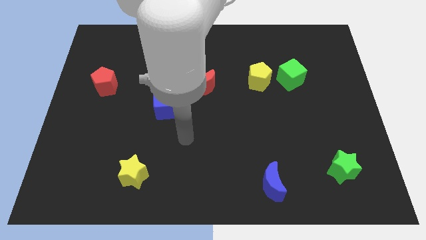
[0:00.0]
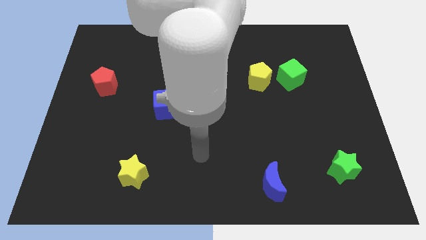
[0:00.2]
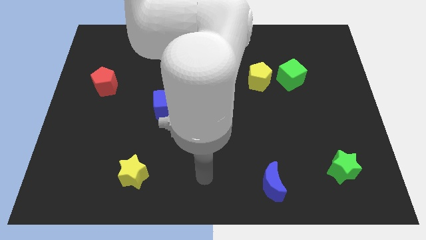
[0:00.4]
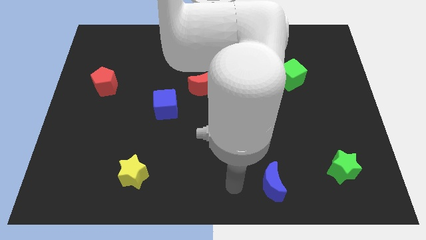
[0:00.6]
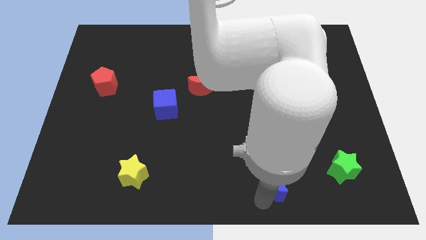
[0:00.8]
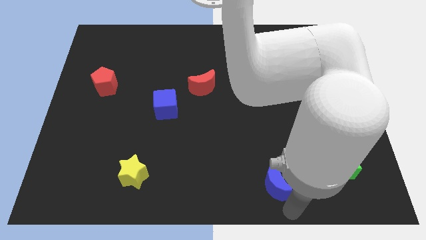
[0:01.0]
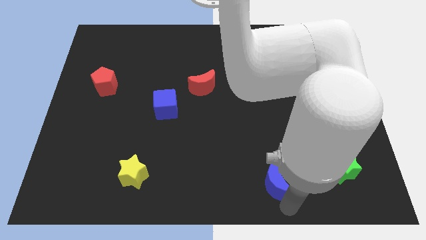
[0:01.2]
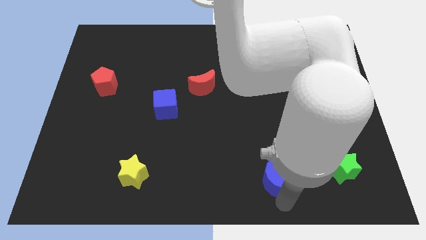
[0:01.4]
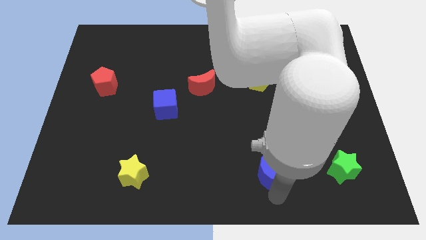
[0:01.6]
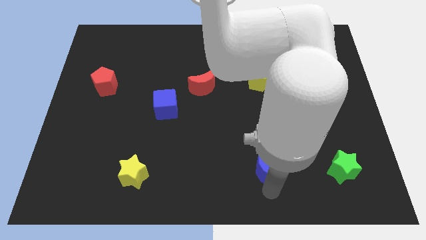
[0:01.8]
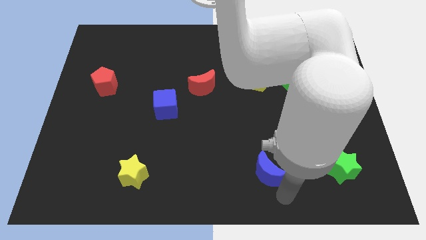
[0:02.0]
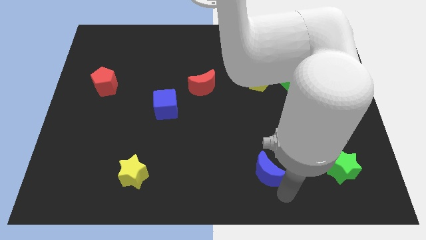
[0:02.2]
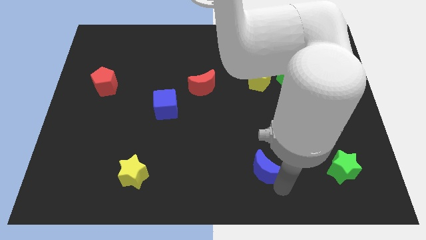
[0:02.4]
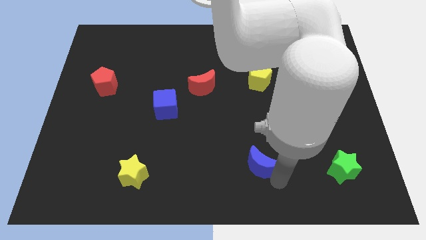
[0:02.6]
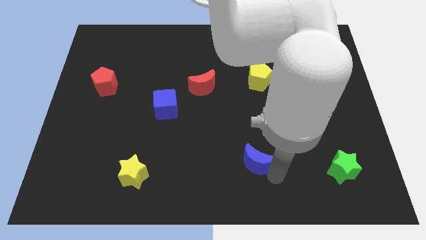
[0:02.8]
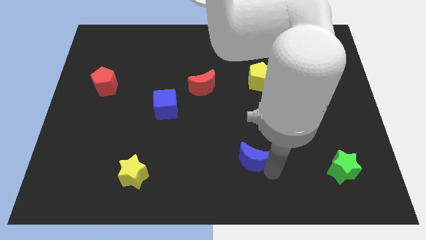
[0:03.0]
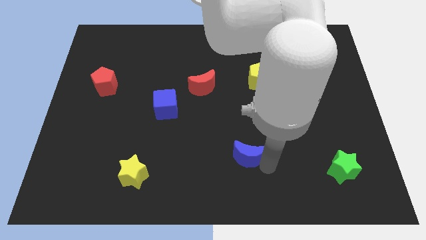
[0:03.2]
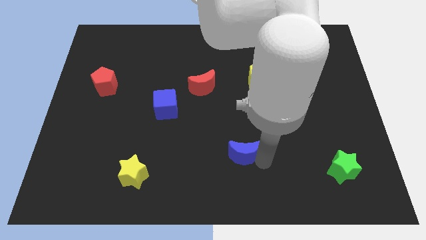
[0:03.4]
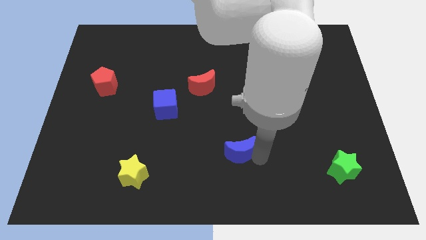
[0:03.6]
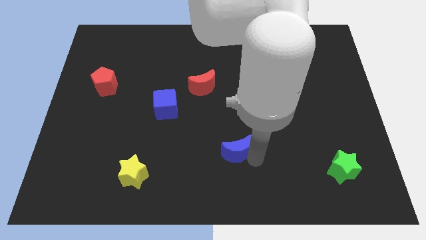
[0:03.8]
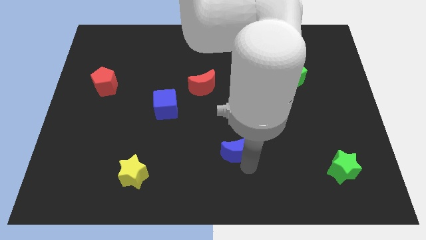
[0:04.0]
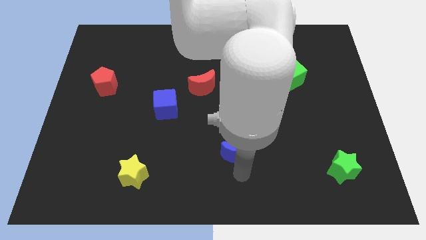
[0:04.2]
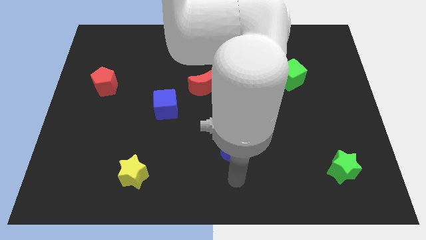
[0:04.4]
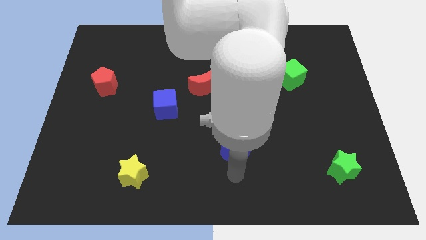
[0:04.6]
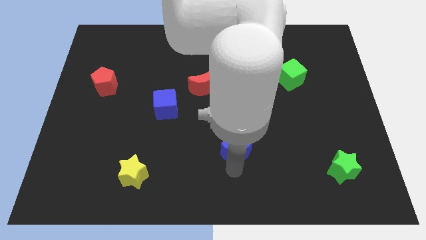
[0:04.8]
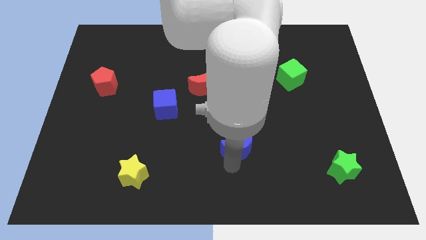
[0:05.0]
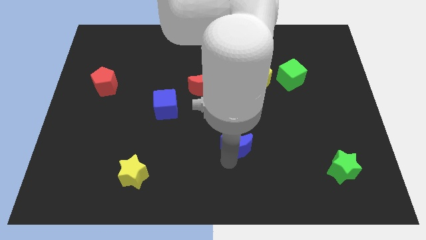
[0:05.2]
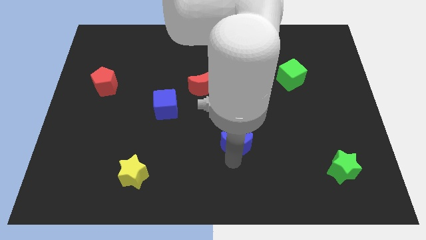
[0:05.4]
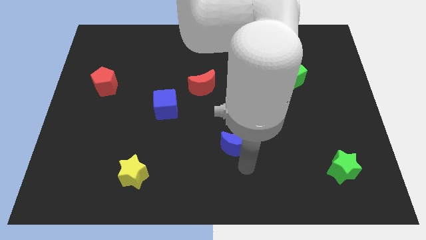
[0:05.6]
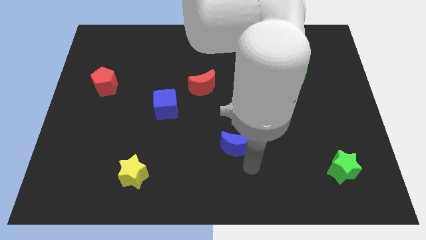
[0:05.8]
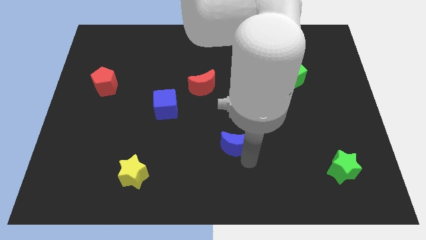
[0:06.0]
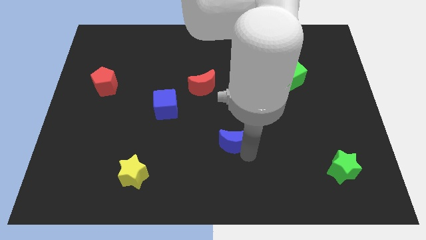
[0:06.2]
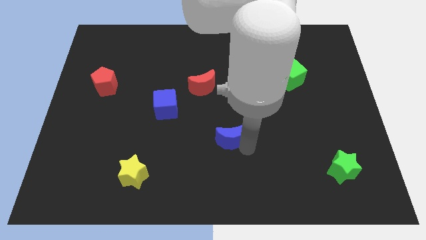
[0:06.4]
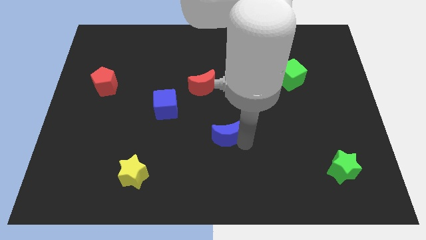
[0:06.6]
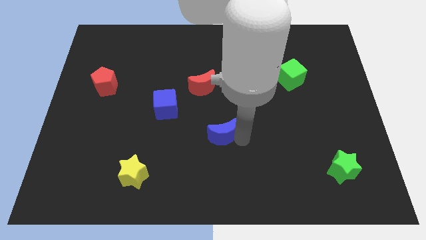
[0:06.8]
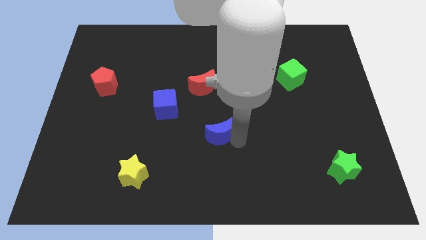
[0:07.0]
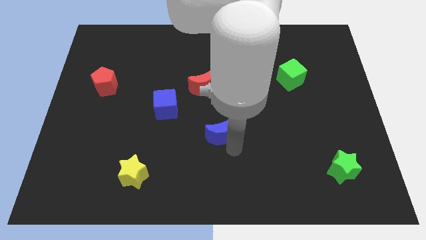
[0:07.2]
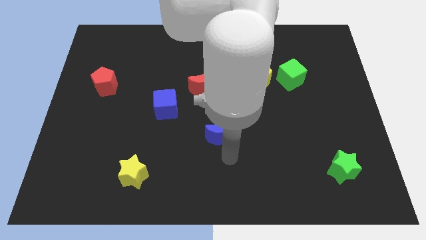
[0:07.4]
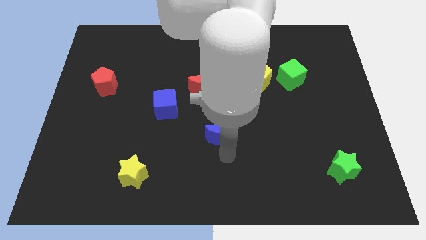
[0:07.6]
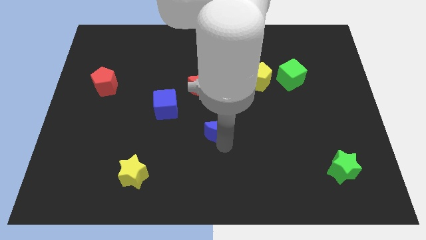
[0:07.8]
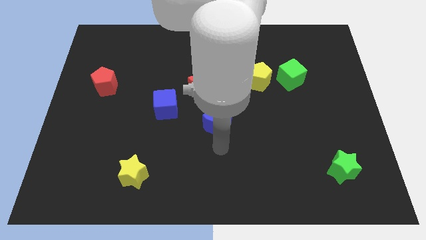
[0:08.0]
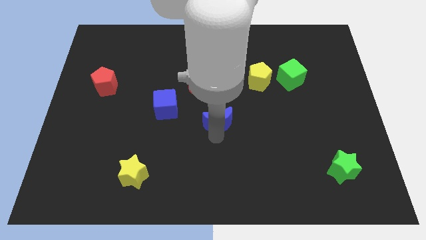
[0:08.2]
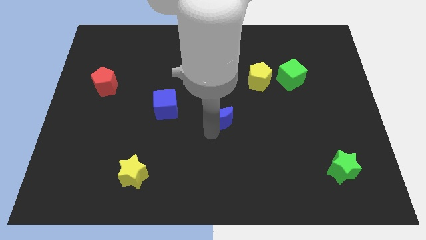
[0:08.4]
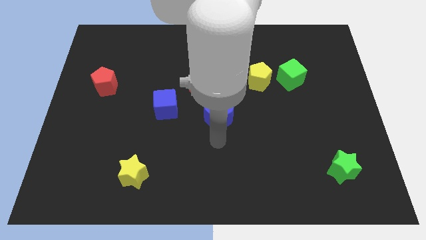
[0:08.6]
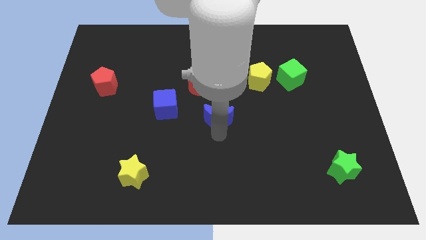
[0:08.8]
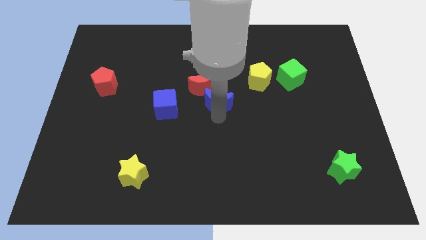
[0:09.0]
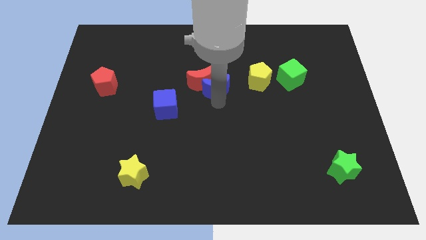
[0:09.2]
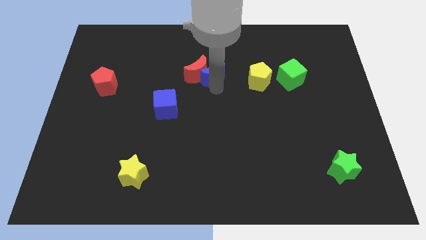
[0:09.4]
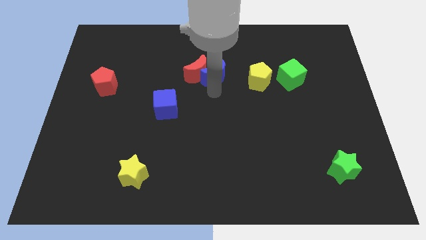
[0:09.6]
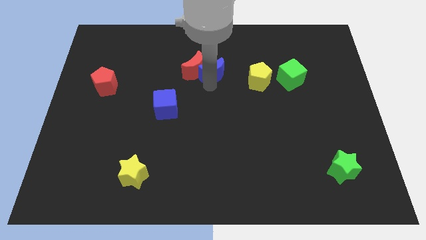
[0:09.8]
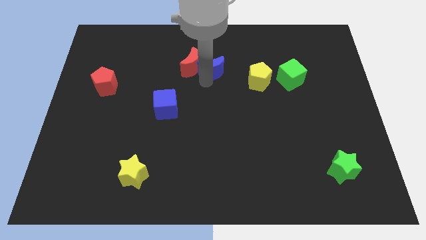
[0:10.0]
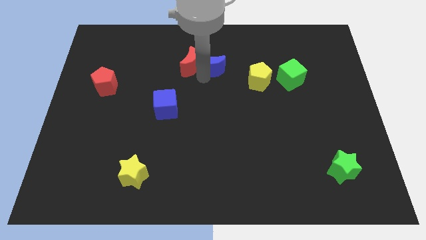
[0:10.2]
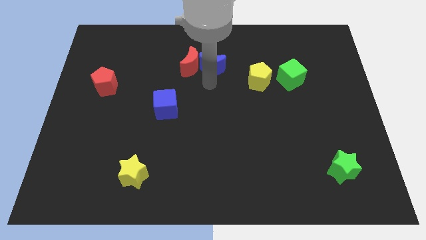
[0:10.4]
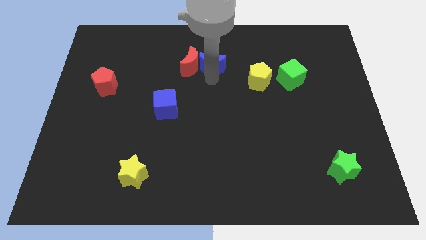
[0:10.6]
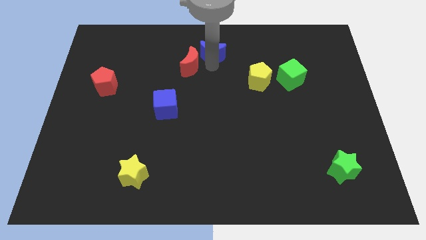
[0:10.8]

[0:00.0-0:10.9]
move the blue moon to the towards your base

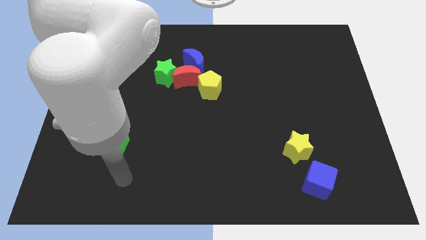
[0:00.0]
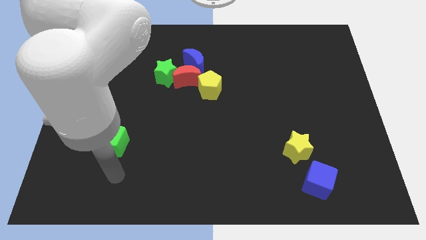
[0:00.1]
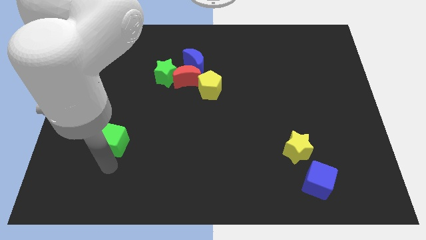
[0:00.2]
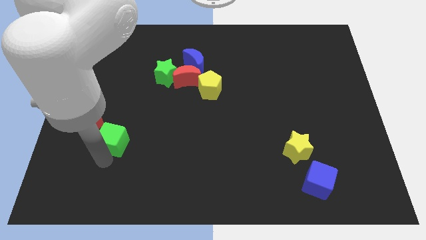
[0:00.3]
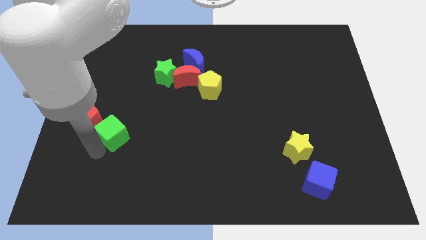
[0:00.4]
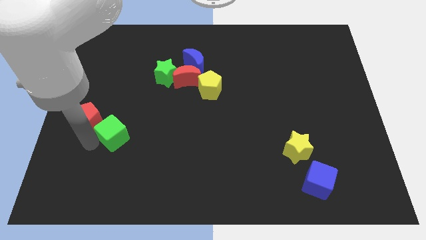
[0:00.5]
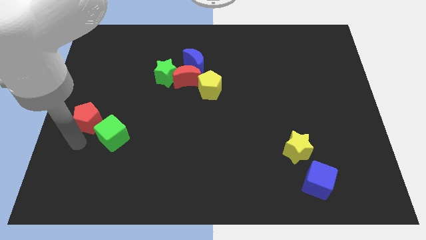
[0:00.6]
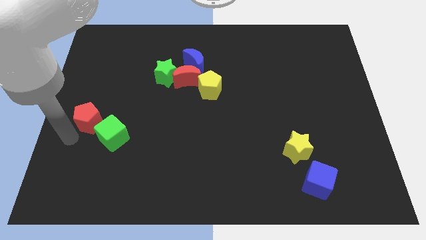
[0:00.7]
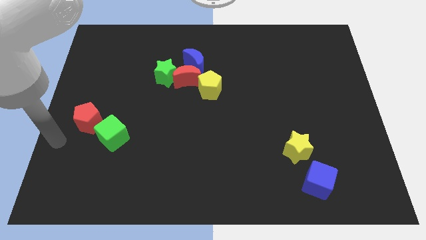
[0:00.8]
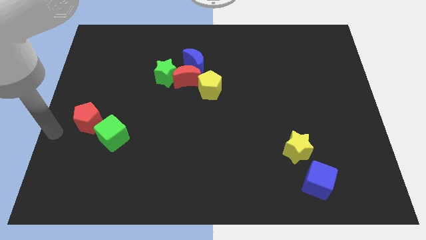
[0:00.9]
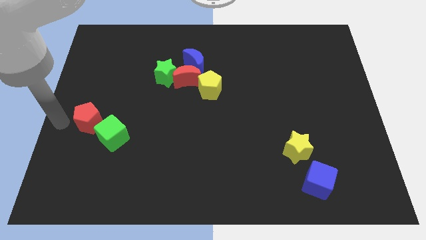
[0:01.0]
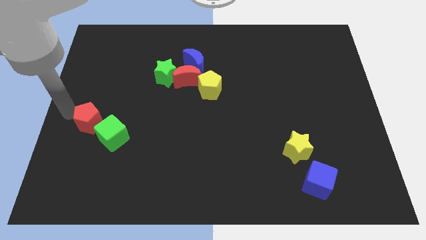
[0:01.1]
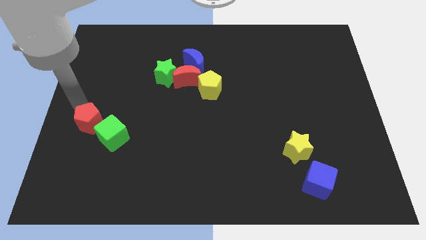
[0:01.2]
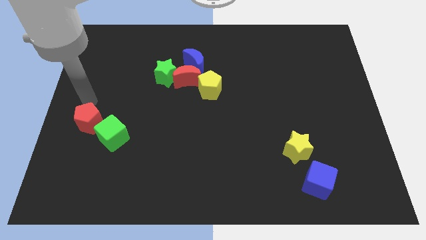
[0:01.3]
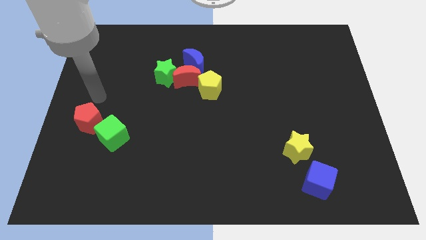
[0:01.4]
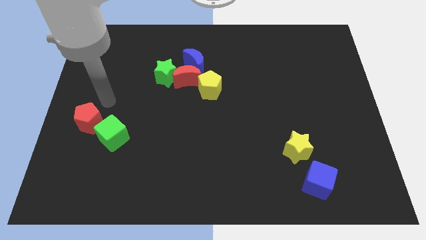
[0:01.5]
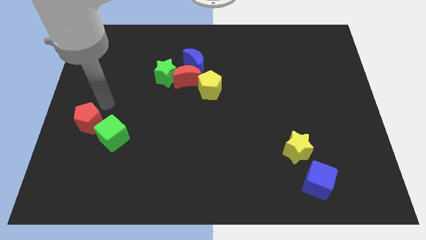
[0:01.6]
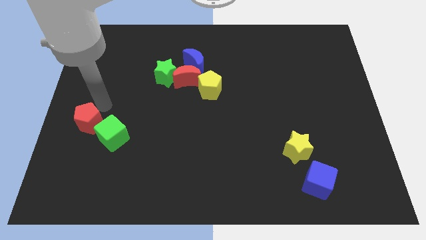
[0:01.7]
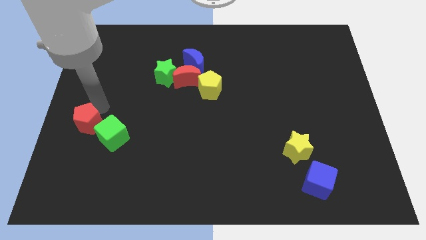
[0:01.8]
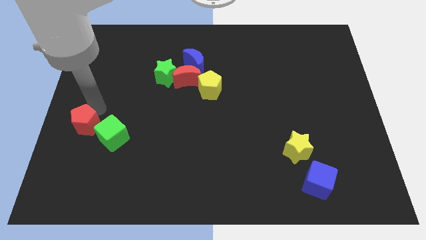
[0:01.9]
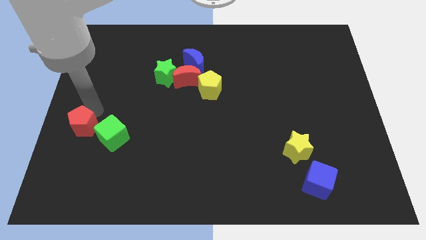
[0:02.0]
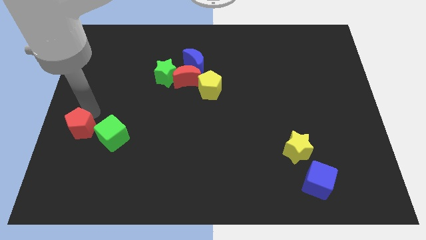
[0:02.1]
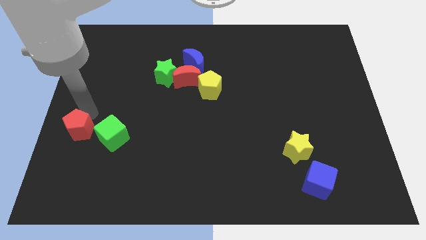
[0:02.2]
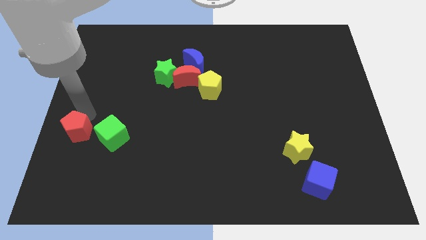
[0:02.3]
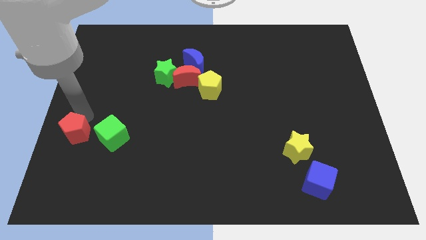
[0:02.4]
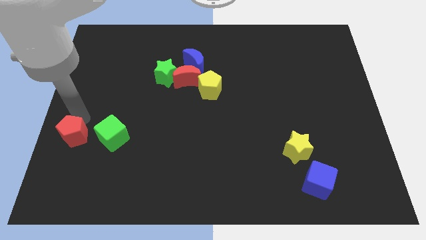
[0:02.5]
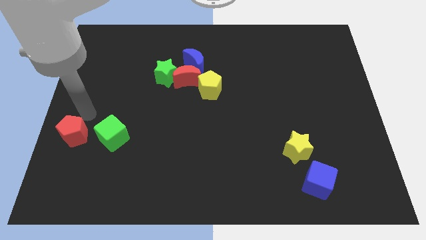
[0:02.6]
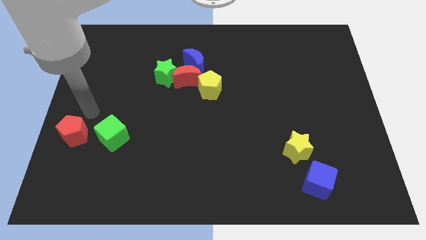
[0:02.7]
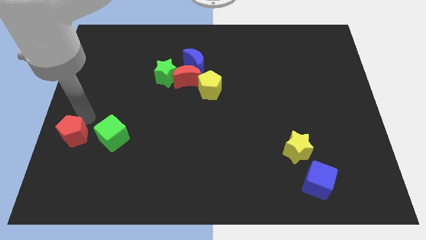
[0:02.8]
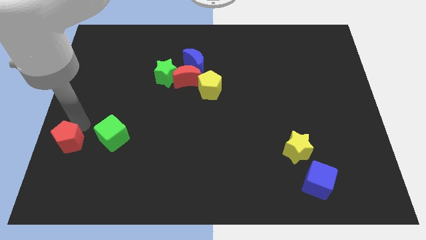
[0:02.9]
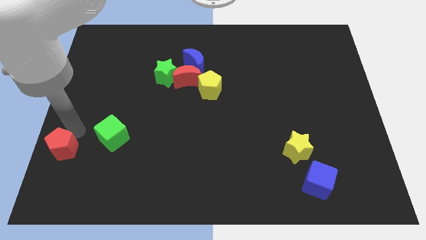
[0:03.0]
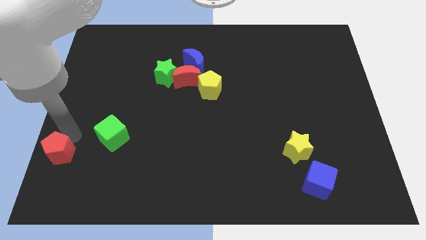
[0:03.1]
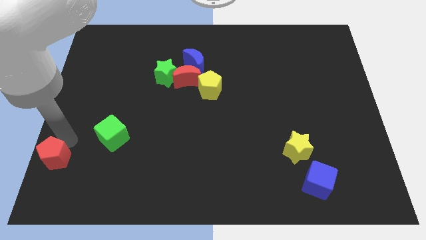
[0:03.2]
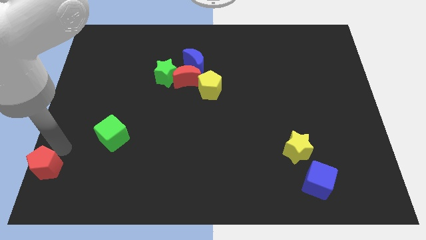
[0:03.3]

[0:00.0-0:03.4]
push the red pentagon to the bottom left
